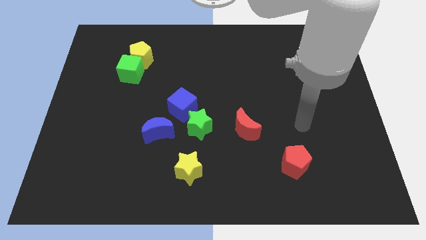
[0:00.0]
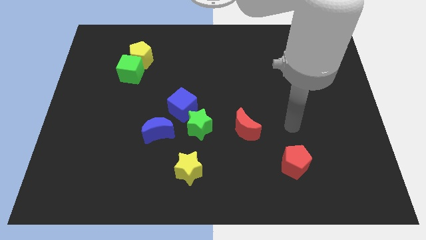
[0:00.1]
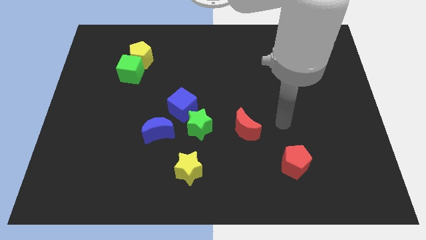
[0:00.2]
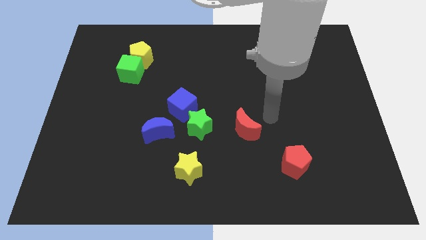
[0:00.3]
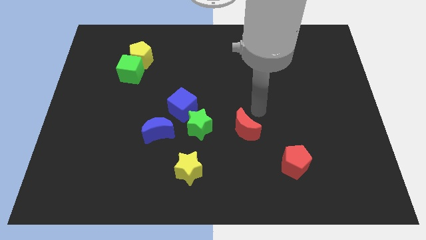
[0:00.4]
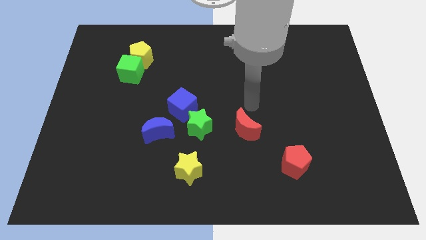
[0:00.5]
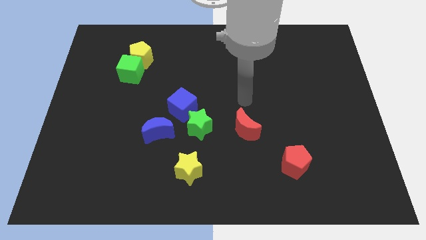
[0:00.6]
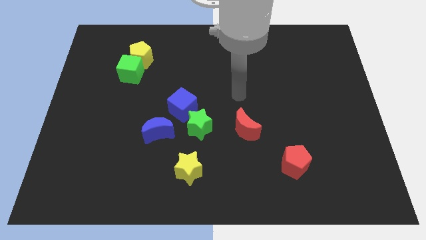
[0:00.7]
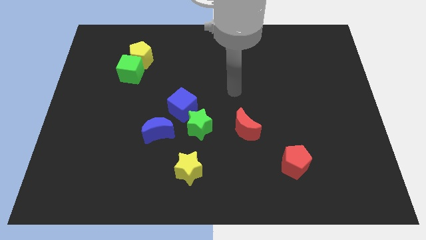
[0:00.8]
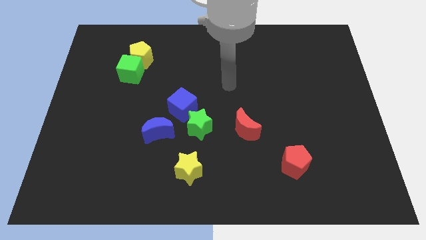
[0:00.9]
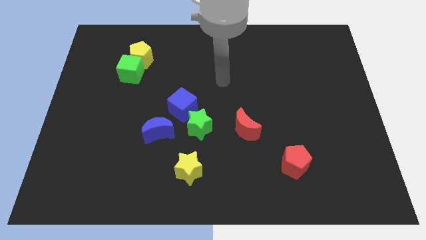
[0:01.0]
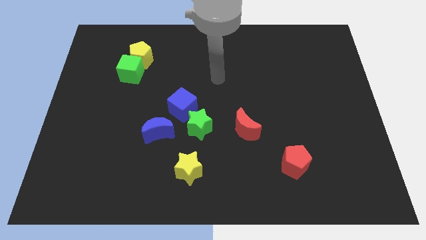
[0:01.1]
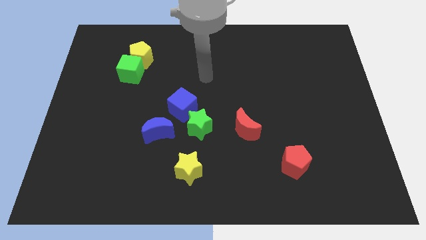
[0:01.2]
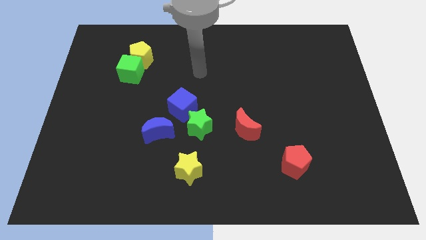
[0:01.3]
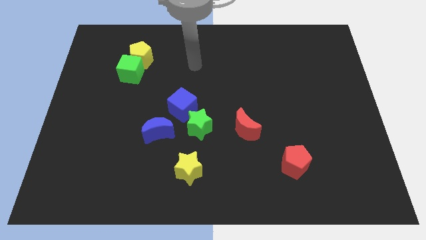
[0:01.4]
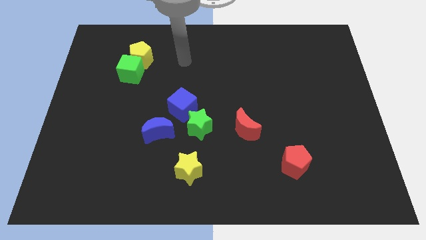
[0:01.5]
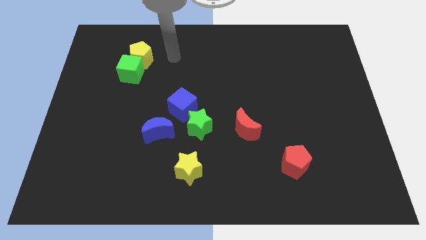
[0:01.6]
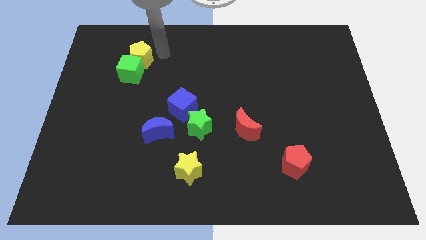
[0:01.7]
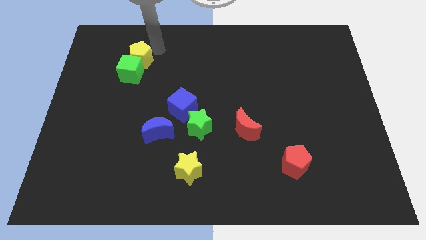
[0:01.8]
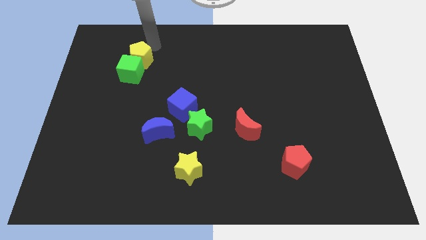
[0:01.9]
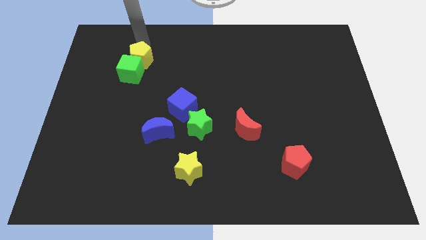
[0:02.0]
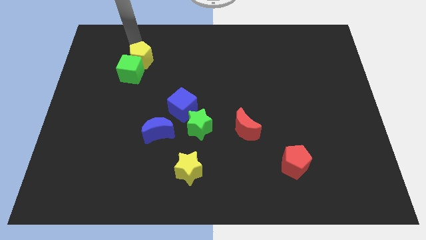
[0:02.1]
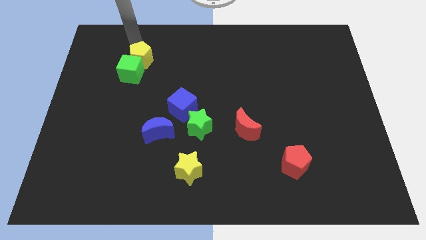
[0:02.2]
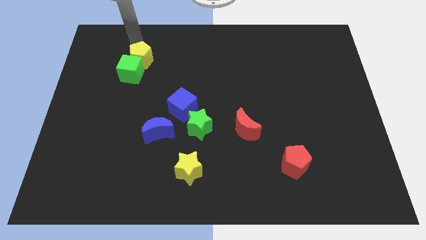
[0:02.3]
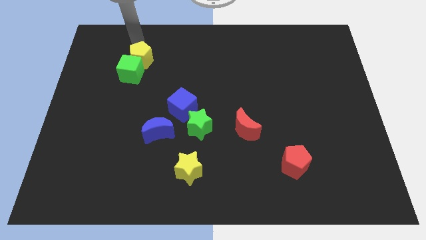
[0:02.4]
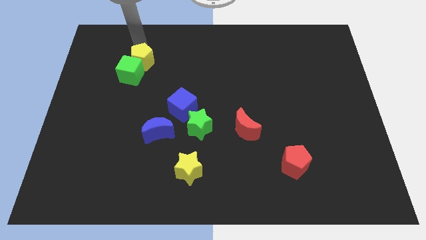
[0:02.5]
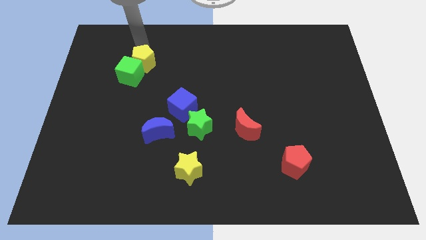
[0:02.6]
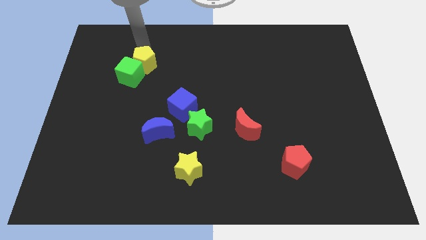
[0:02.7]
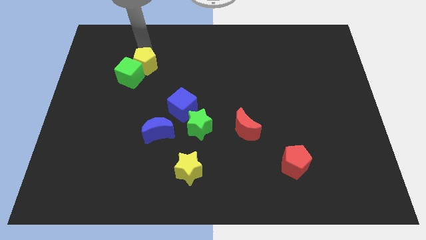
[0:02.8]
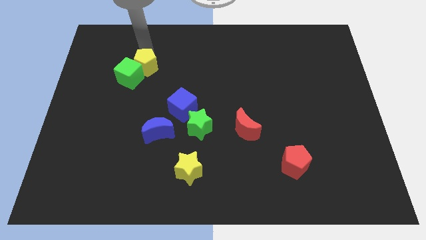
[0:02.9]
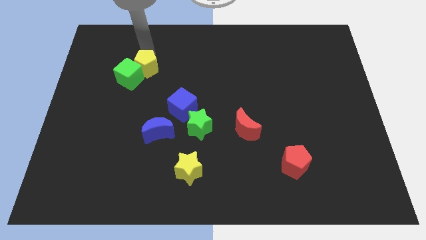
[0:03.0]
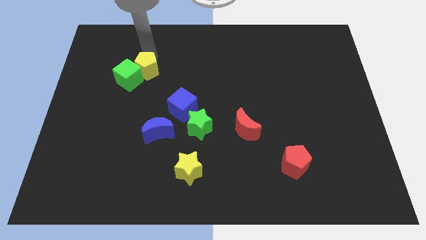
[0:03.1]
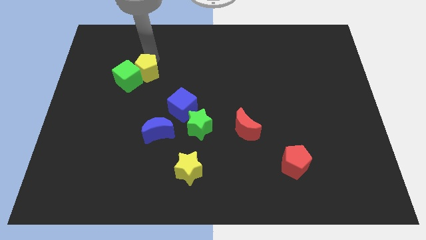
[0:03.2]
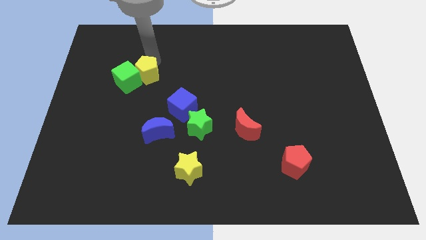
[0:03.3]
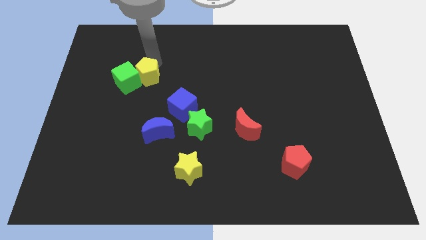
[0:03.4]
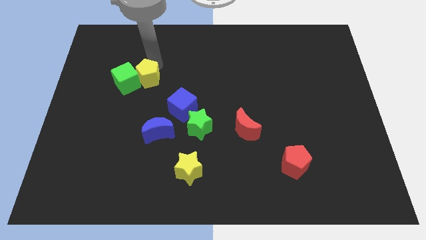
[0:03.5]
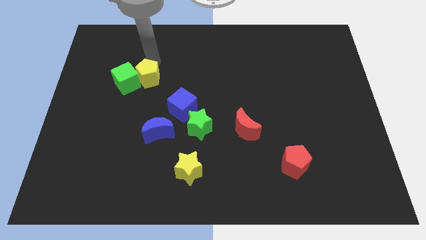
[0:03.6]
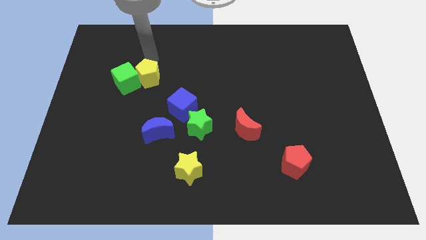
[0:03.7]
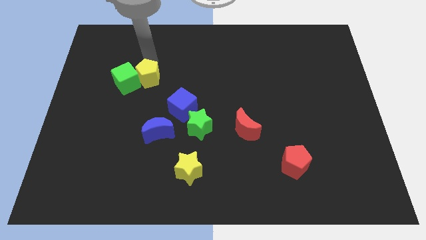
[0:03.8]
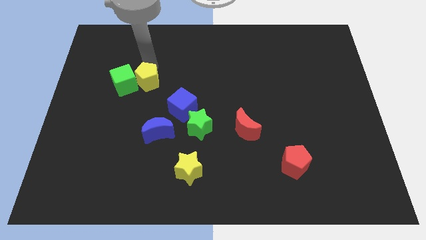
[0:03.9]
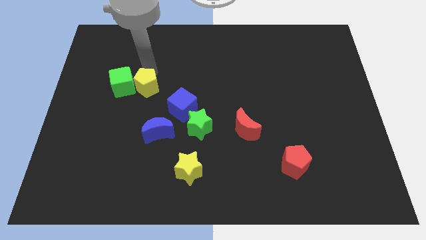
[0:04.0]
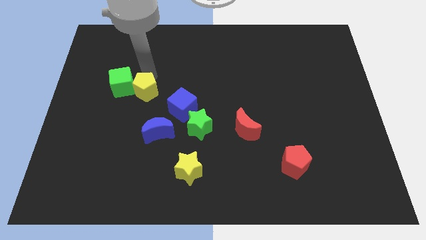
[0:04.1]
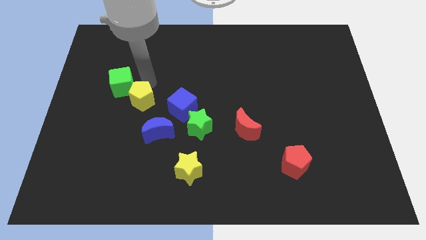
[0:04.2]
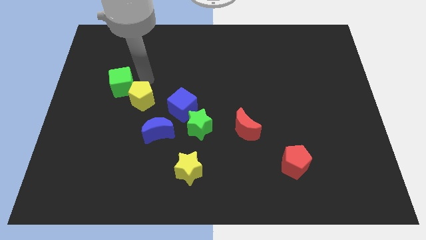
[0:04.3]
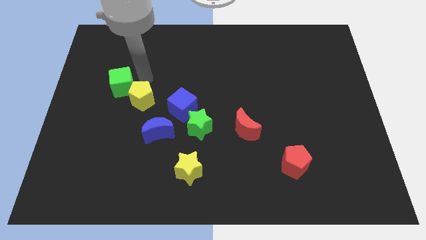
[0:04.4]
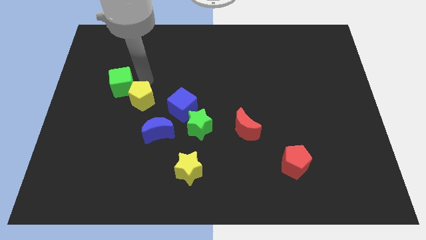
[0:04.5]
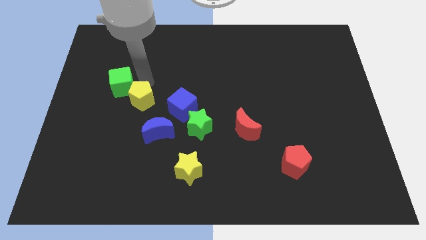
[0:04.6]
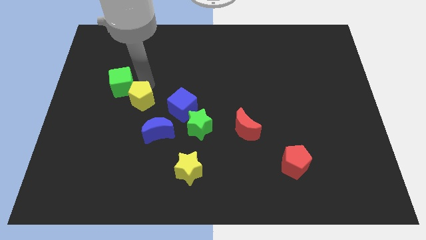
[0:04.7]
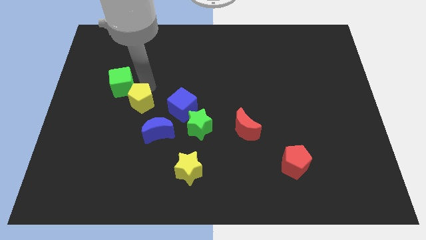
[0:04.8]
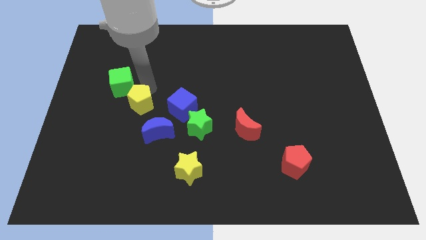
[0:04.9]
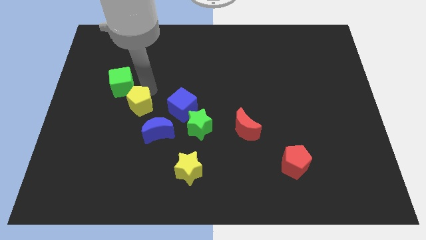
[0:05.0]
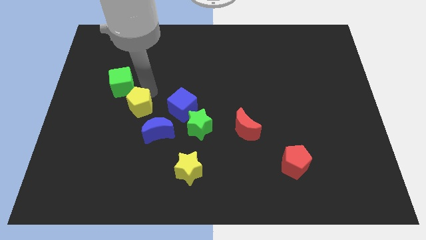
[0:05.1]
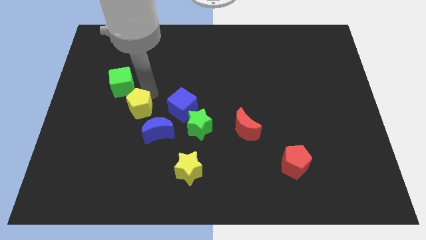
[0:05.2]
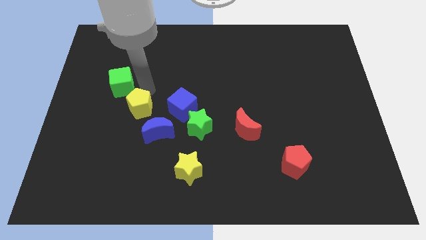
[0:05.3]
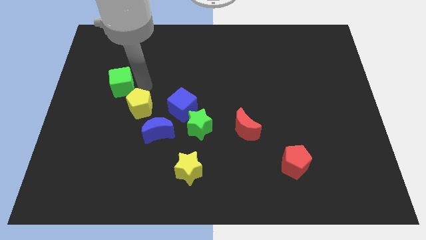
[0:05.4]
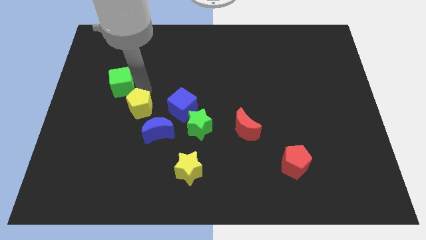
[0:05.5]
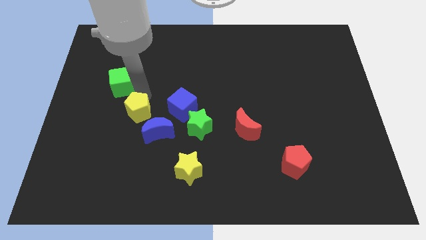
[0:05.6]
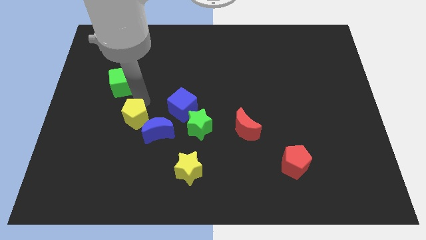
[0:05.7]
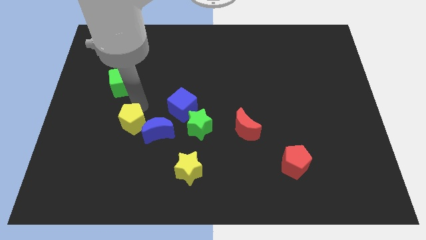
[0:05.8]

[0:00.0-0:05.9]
slide the yellow pentagon down

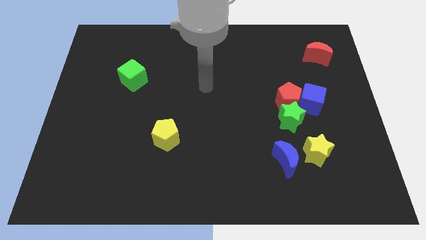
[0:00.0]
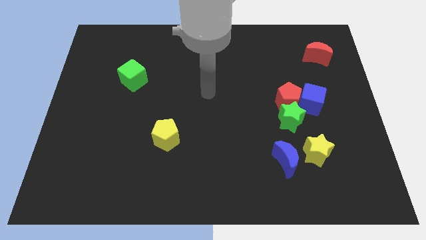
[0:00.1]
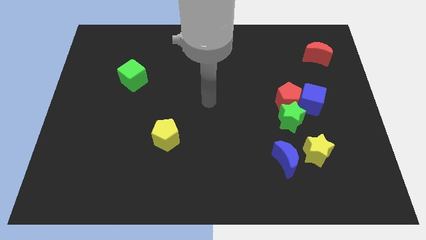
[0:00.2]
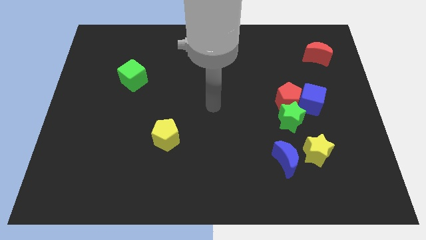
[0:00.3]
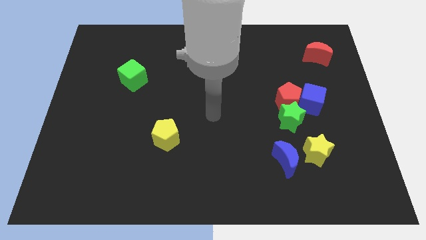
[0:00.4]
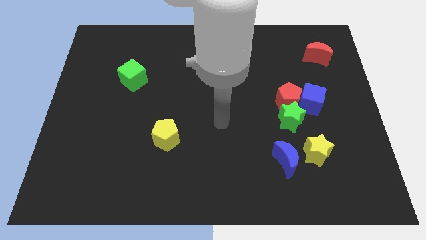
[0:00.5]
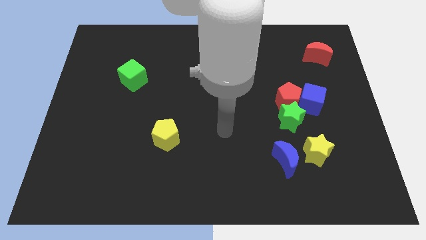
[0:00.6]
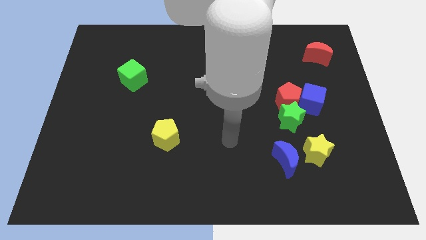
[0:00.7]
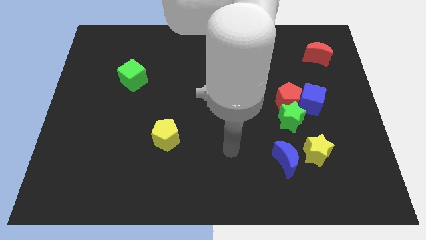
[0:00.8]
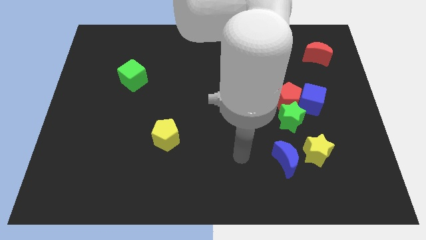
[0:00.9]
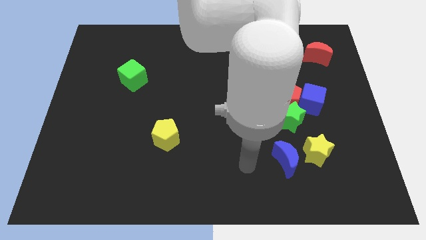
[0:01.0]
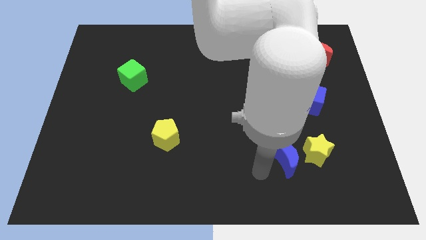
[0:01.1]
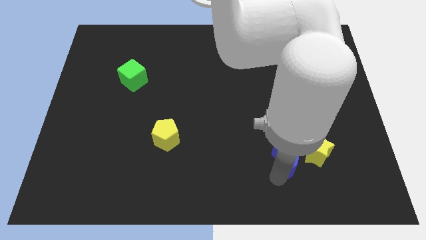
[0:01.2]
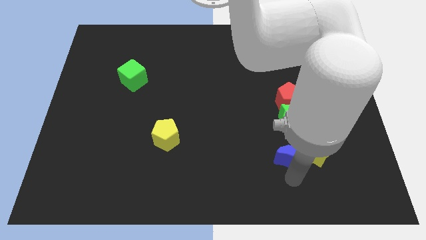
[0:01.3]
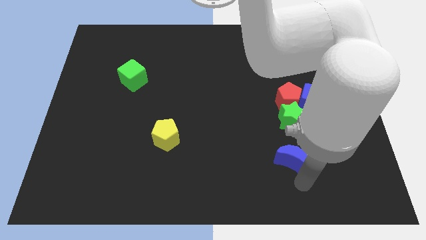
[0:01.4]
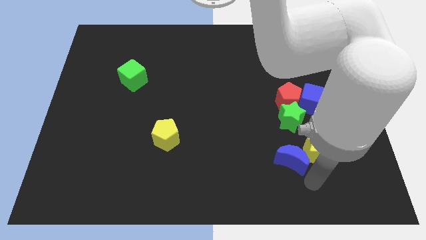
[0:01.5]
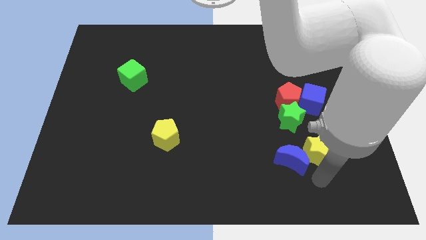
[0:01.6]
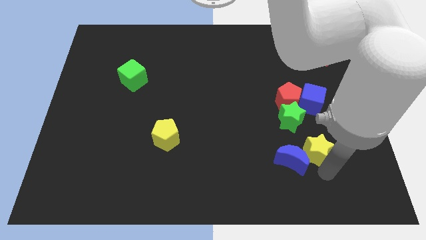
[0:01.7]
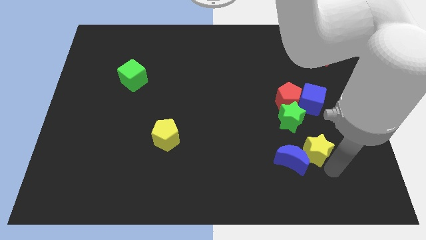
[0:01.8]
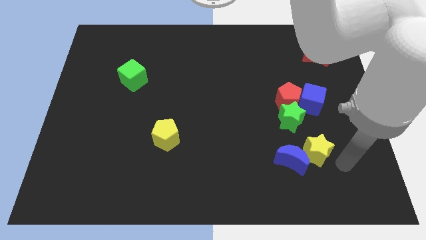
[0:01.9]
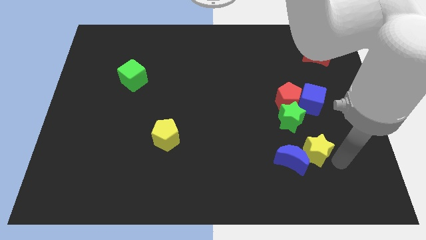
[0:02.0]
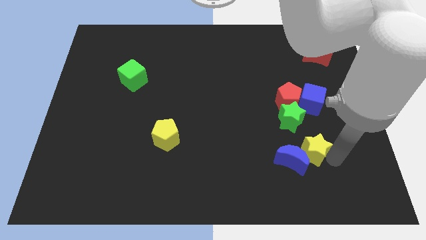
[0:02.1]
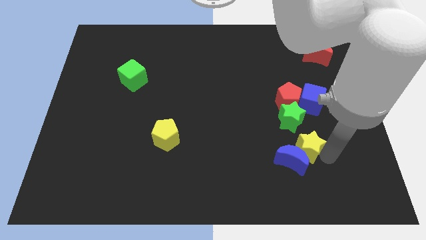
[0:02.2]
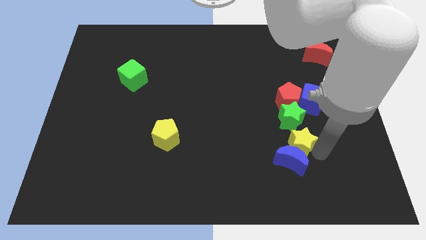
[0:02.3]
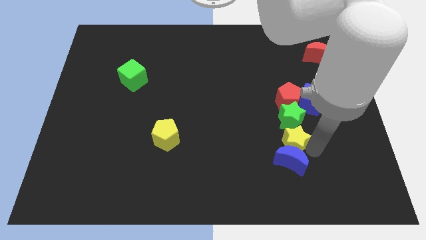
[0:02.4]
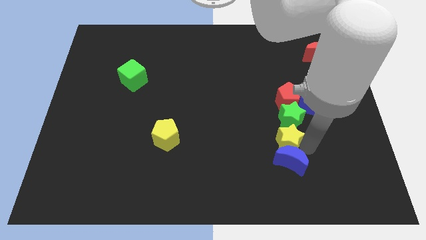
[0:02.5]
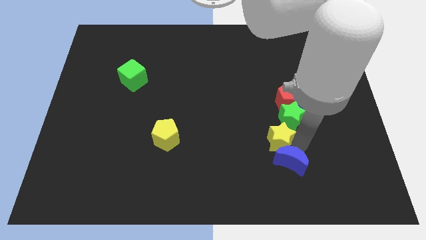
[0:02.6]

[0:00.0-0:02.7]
move the yellow star slightly up and then left
